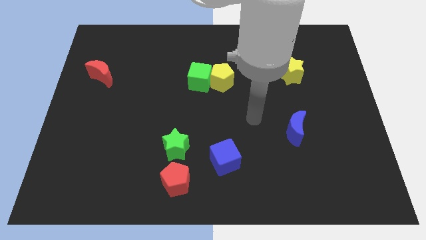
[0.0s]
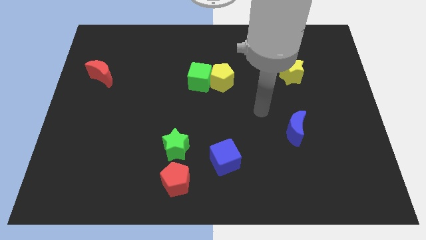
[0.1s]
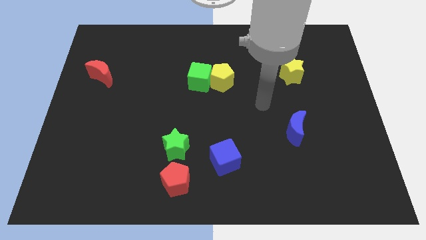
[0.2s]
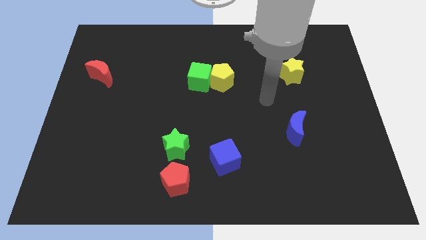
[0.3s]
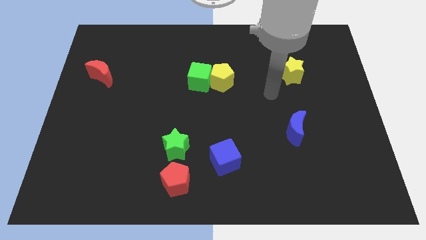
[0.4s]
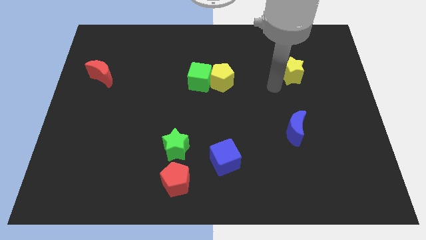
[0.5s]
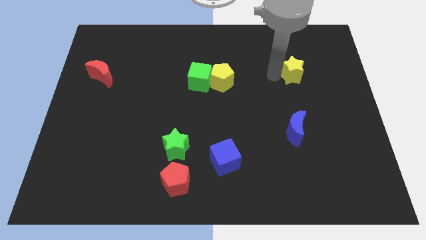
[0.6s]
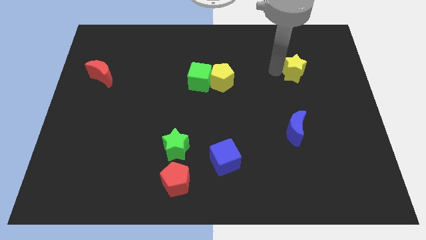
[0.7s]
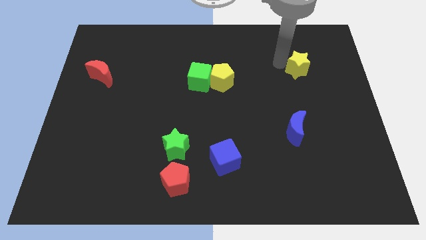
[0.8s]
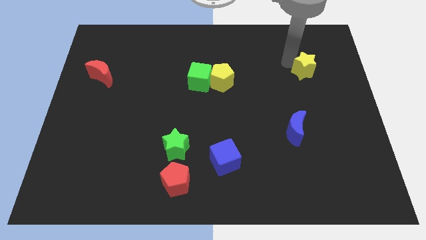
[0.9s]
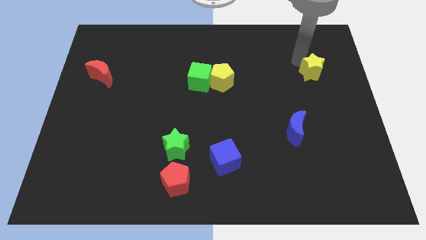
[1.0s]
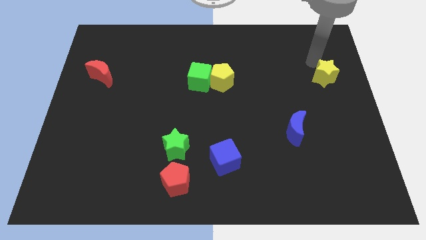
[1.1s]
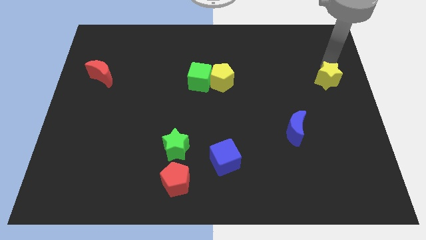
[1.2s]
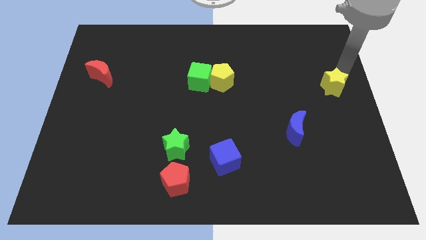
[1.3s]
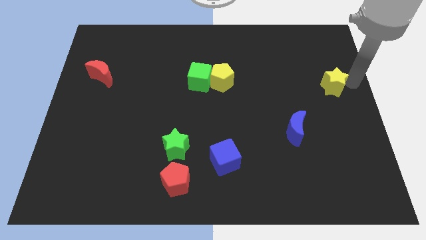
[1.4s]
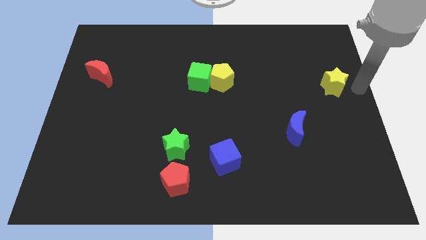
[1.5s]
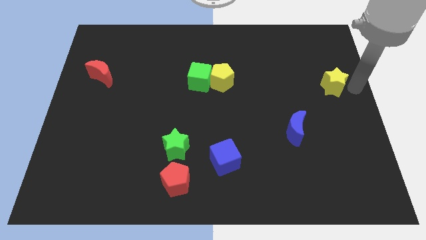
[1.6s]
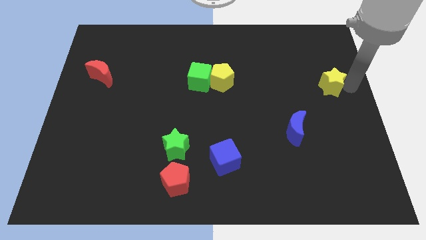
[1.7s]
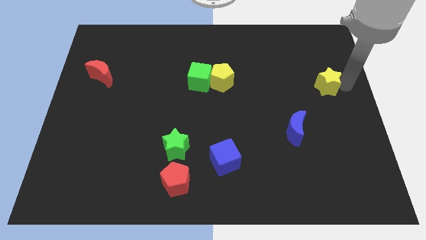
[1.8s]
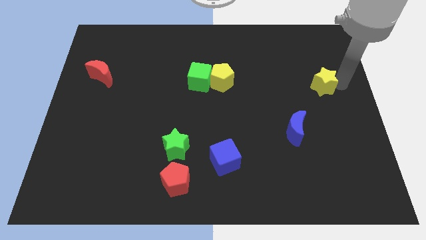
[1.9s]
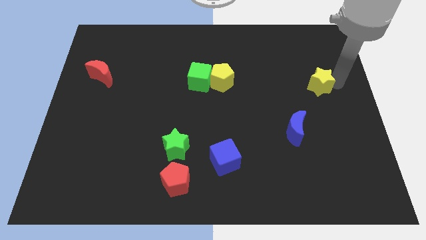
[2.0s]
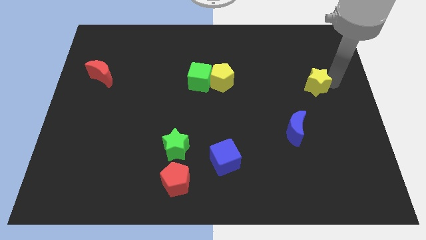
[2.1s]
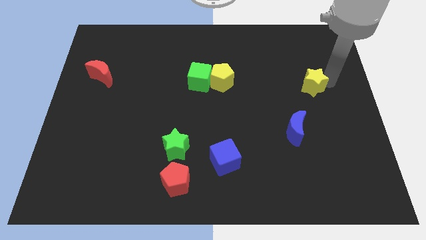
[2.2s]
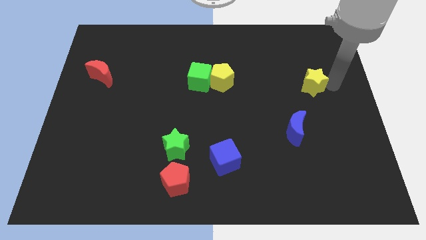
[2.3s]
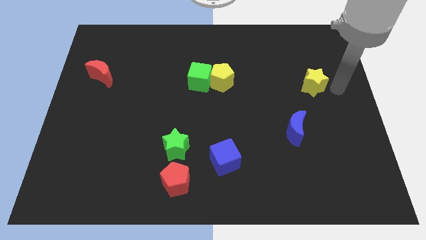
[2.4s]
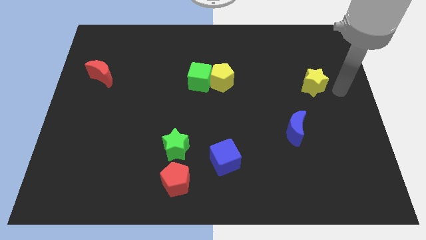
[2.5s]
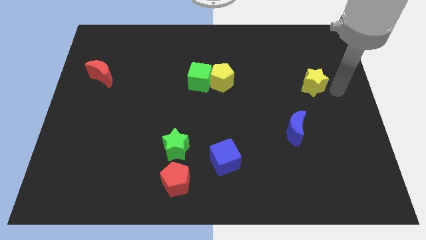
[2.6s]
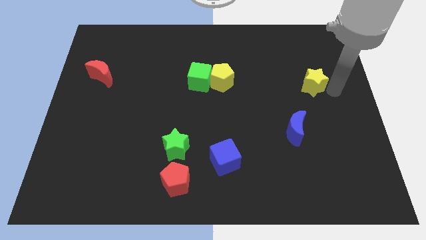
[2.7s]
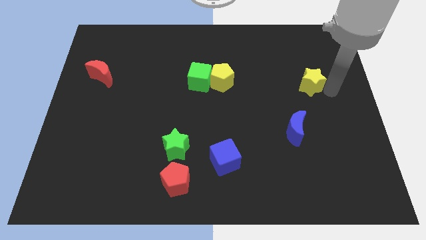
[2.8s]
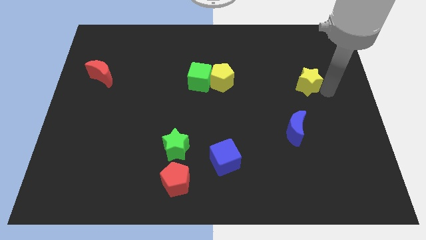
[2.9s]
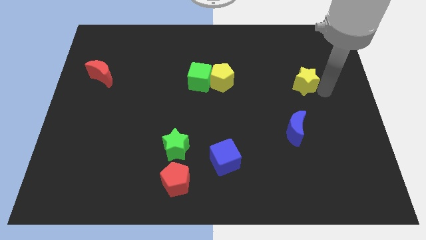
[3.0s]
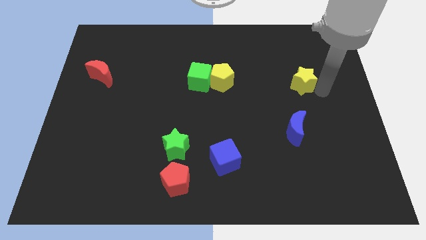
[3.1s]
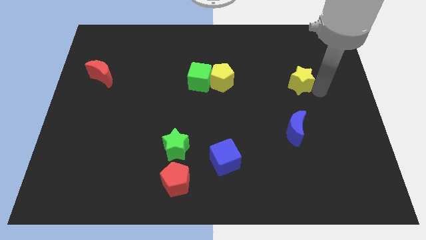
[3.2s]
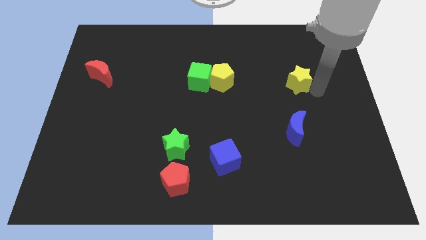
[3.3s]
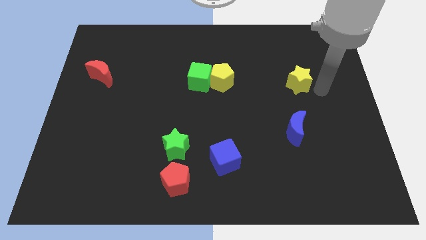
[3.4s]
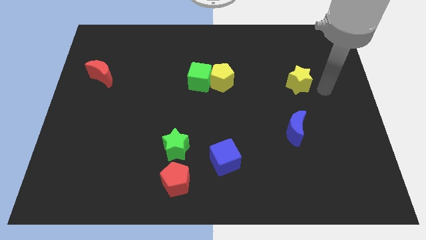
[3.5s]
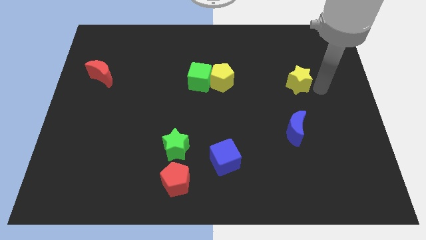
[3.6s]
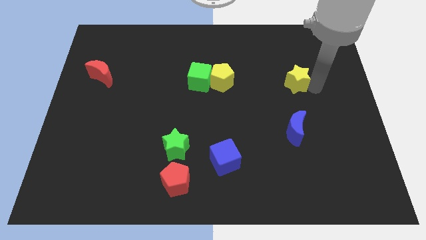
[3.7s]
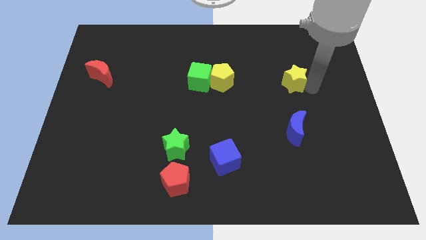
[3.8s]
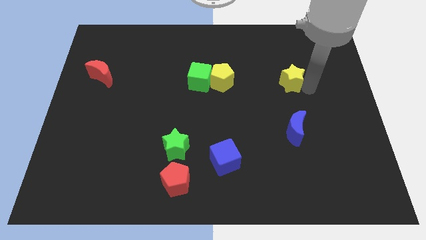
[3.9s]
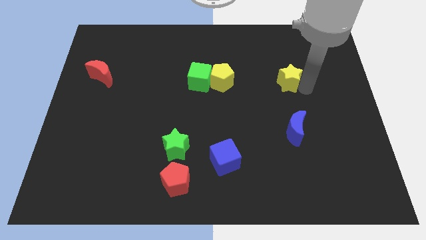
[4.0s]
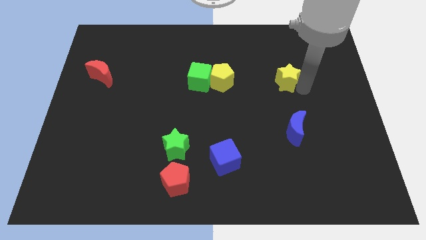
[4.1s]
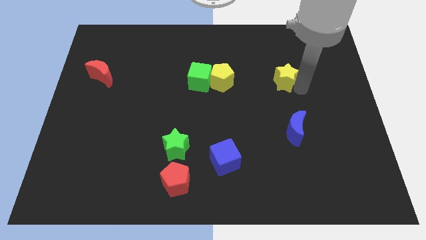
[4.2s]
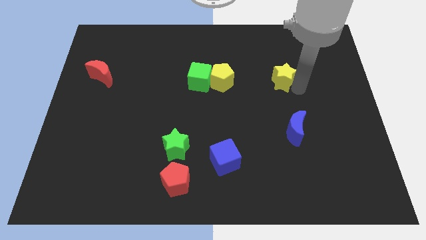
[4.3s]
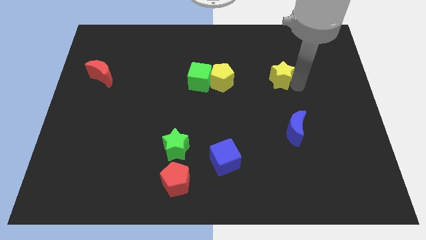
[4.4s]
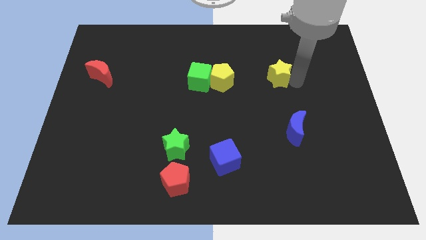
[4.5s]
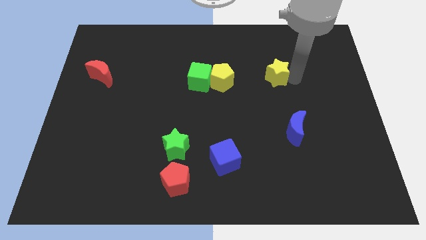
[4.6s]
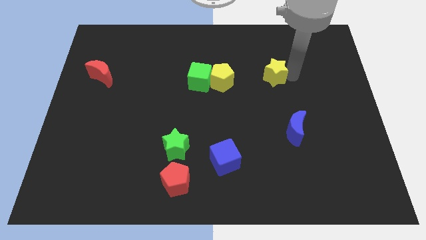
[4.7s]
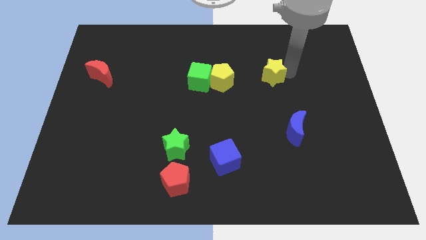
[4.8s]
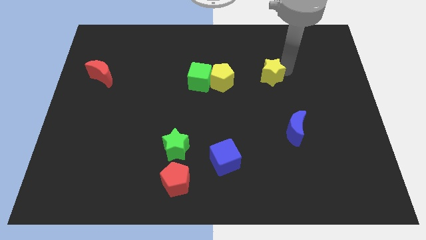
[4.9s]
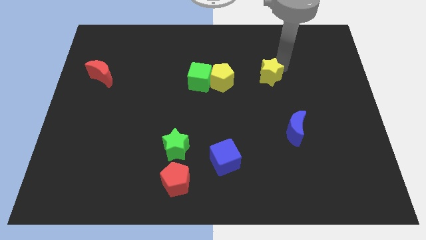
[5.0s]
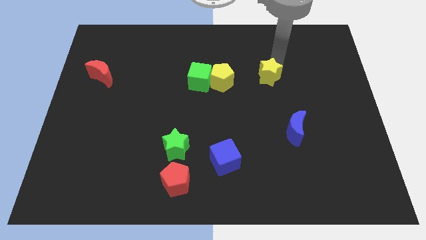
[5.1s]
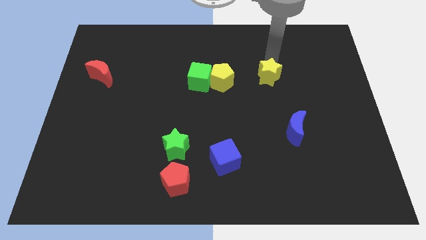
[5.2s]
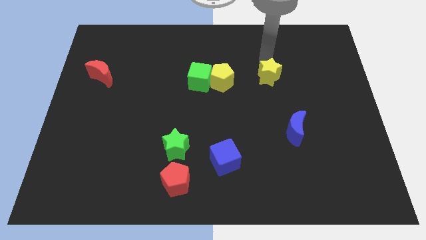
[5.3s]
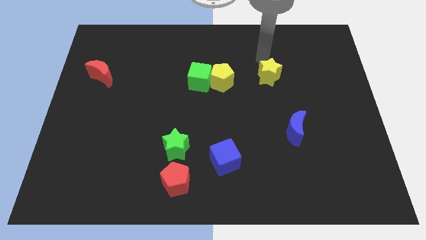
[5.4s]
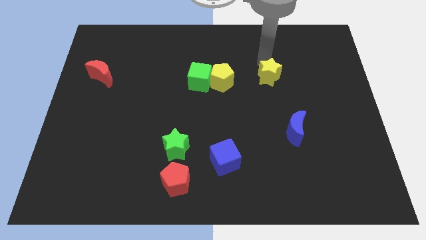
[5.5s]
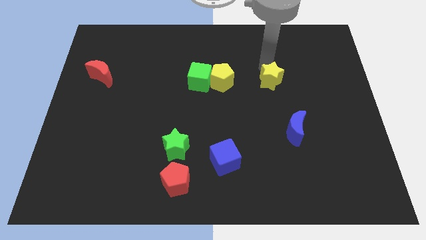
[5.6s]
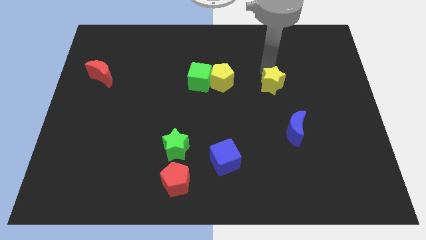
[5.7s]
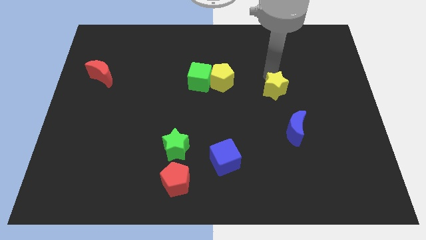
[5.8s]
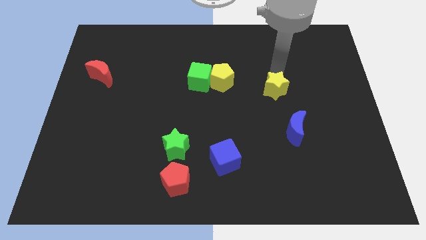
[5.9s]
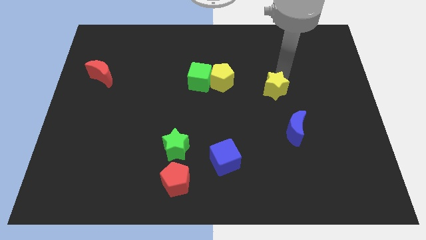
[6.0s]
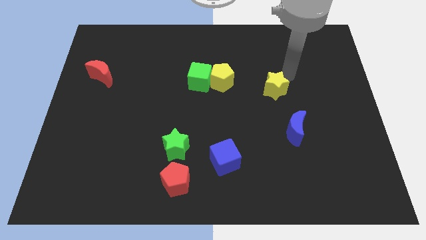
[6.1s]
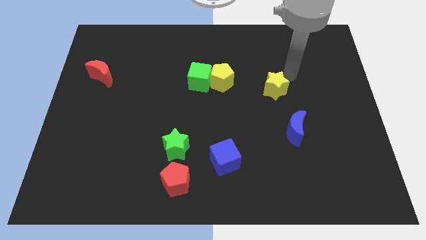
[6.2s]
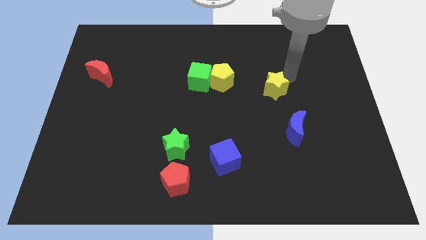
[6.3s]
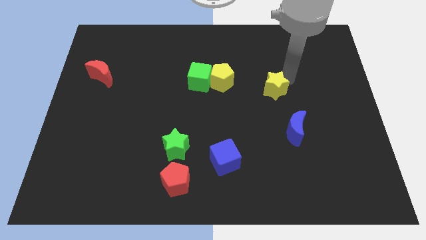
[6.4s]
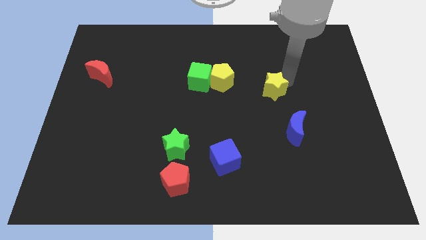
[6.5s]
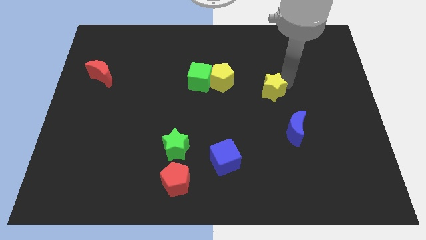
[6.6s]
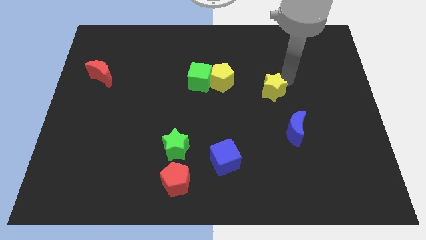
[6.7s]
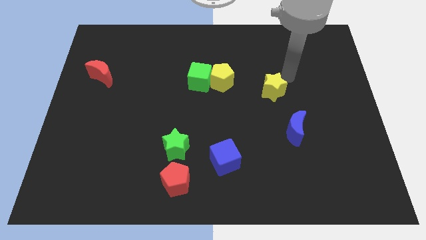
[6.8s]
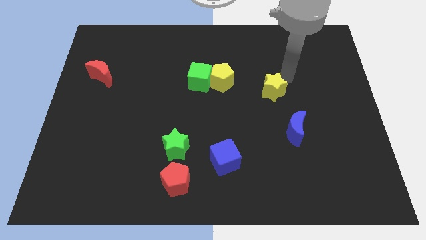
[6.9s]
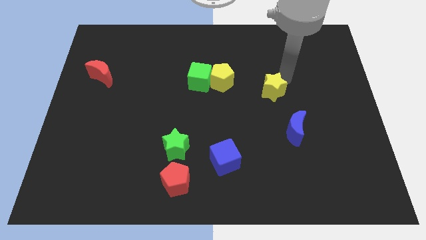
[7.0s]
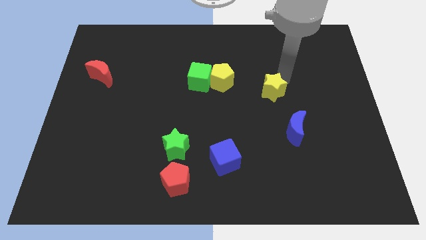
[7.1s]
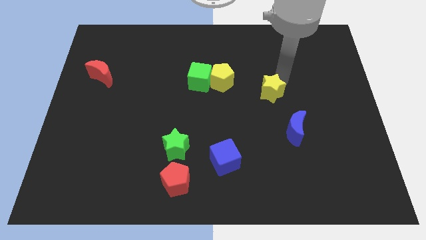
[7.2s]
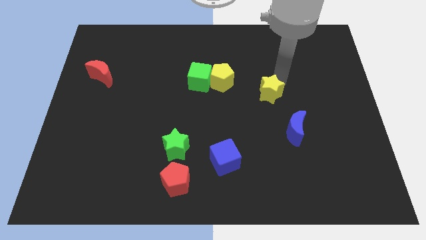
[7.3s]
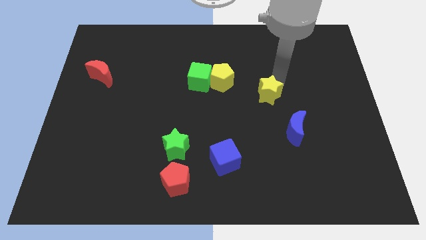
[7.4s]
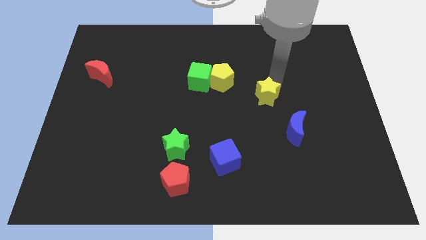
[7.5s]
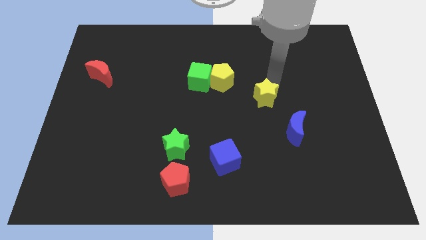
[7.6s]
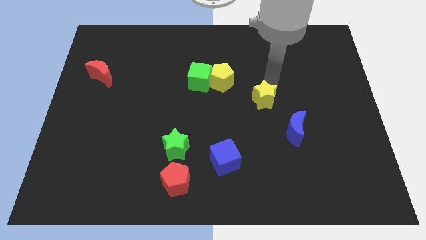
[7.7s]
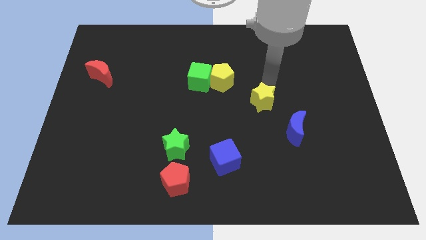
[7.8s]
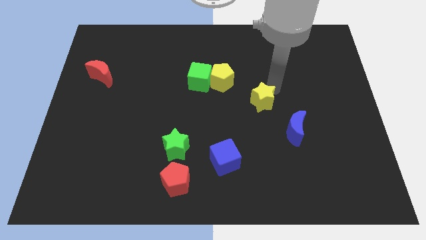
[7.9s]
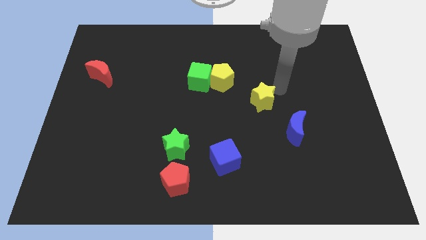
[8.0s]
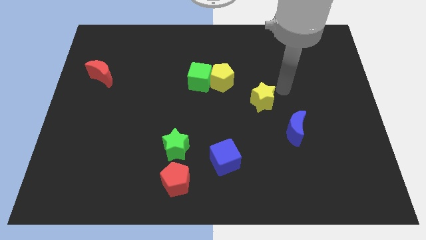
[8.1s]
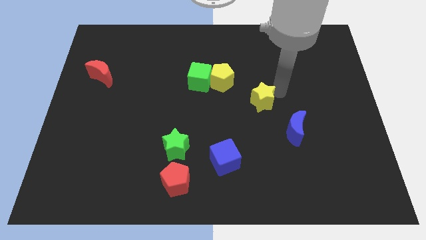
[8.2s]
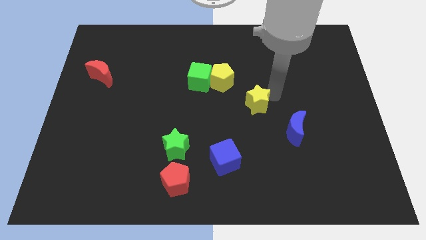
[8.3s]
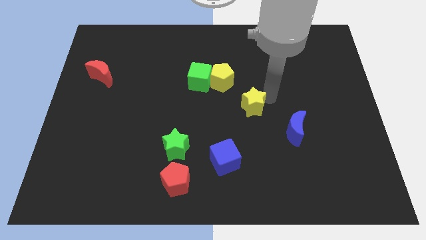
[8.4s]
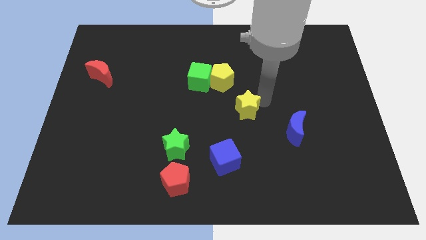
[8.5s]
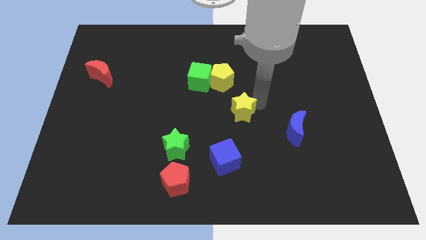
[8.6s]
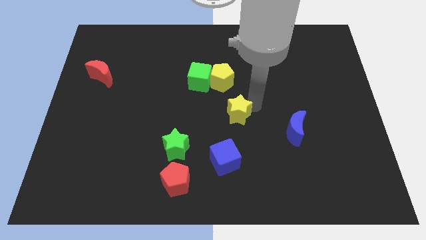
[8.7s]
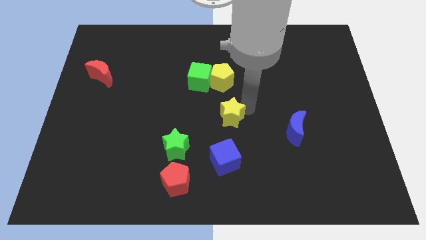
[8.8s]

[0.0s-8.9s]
move the yellow star diagonally down and left
